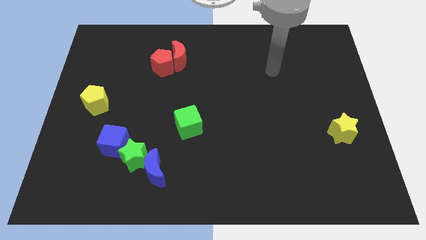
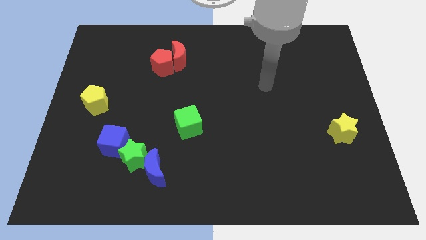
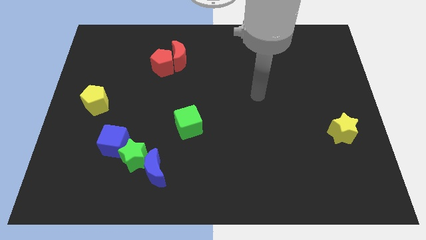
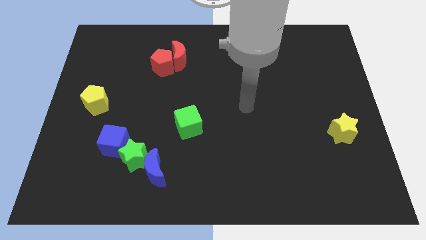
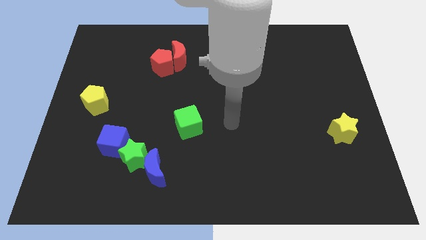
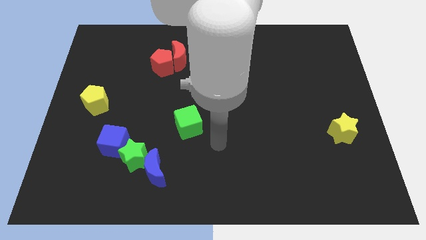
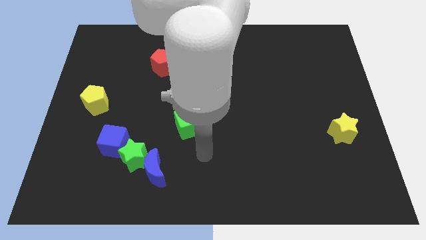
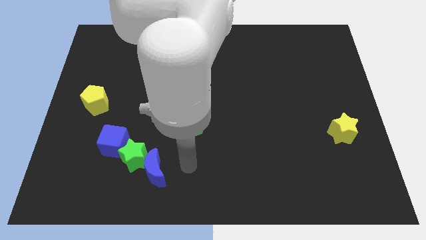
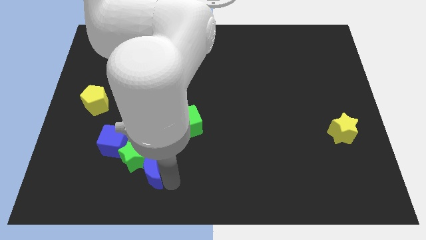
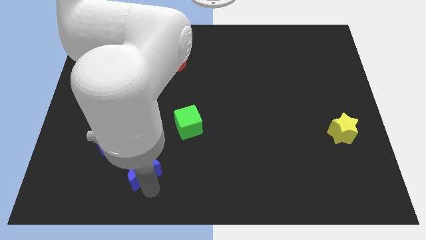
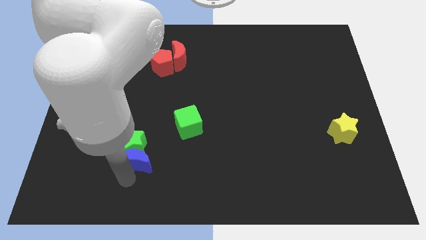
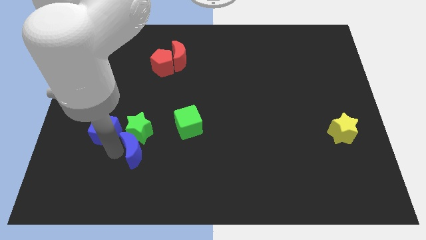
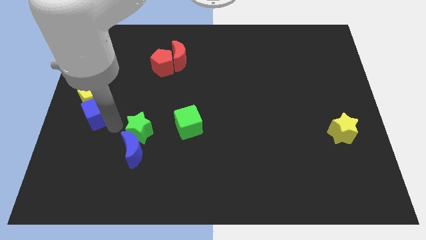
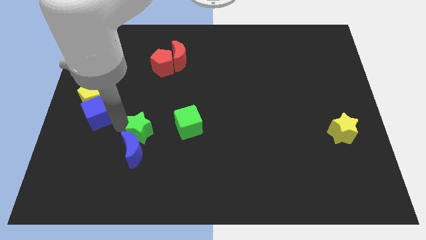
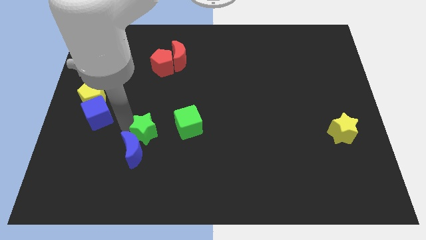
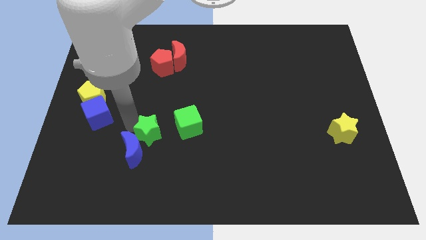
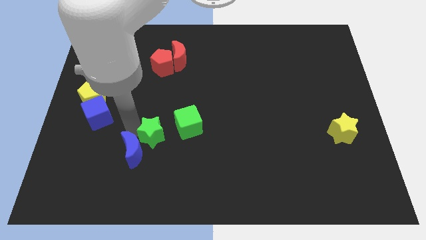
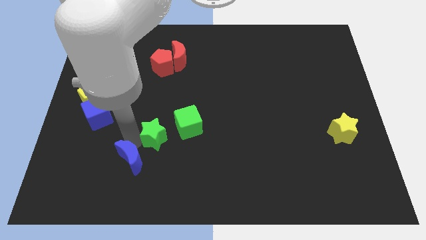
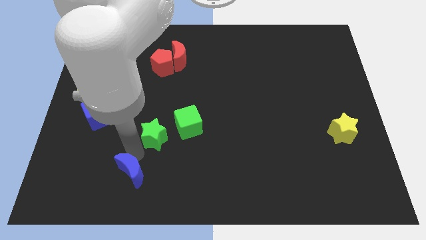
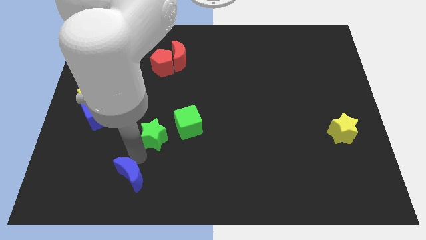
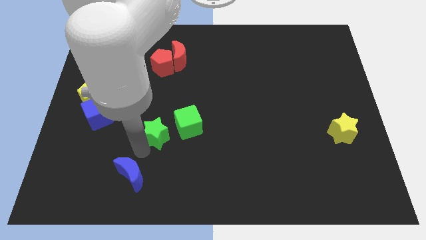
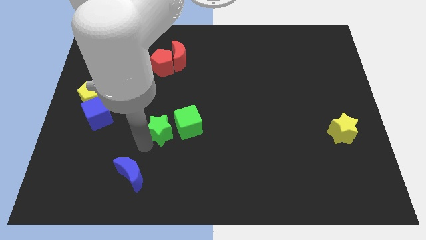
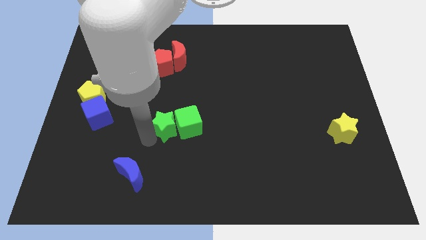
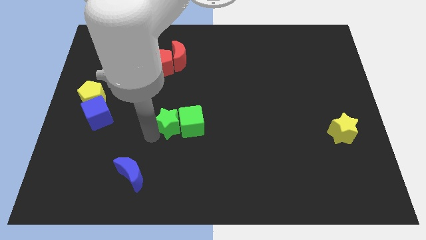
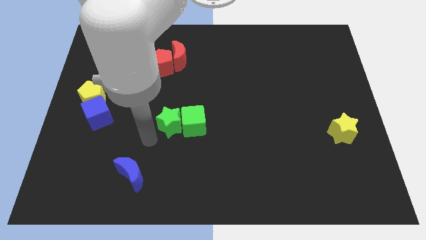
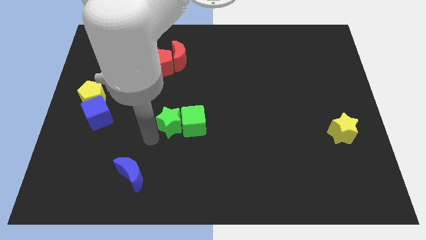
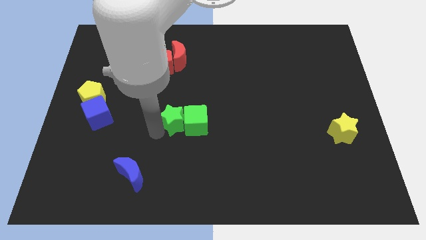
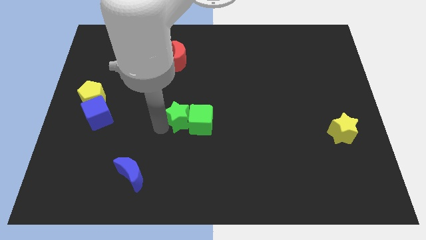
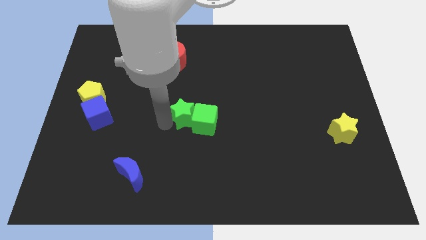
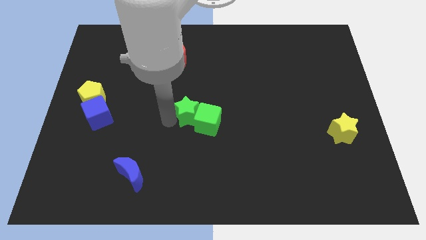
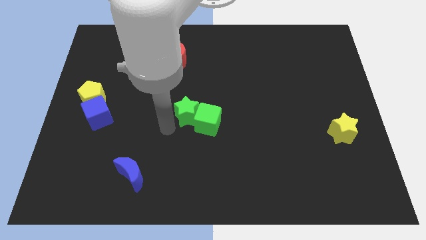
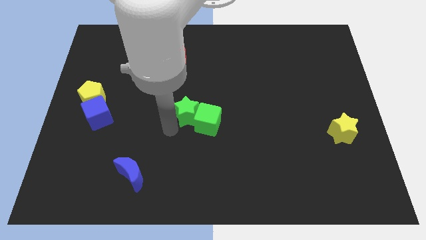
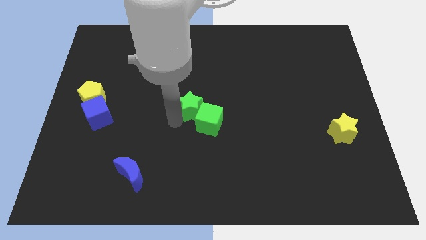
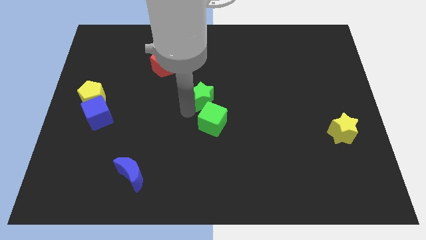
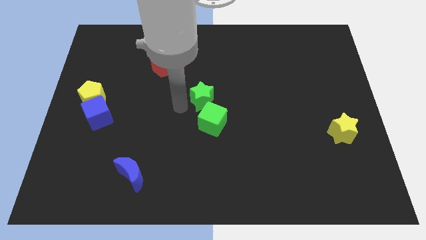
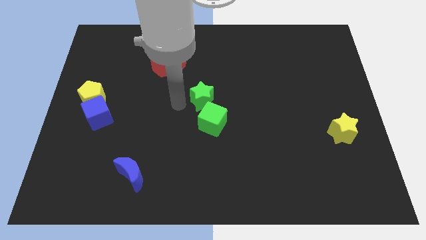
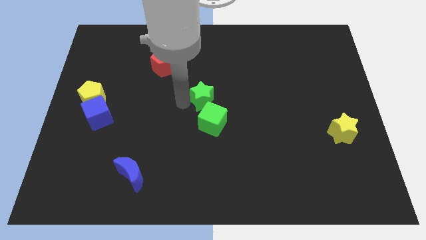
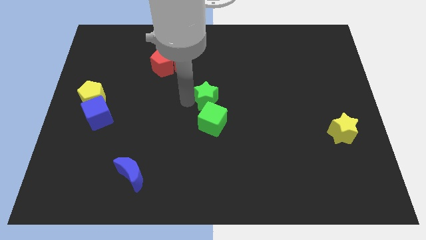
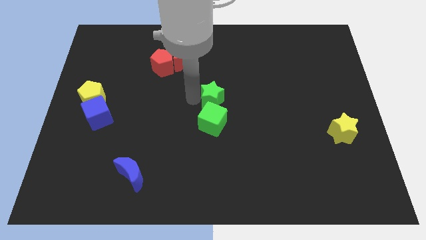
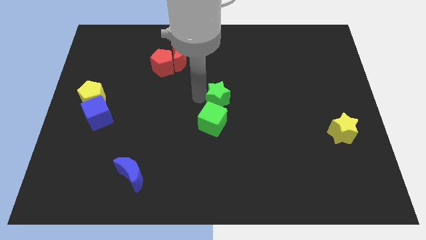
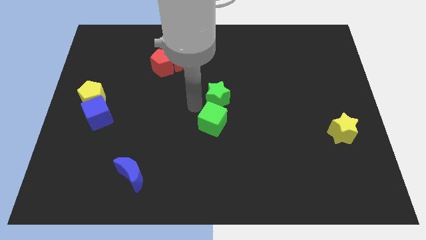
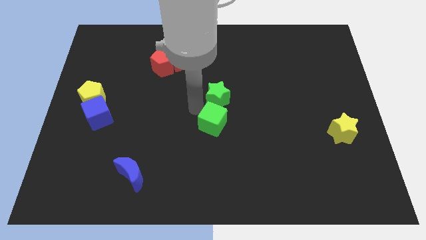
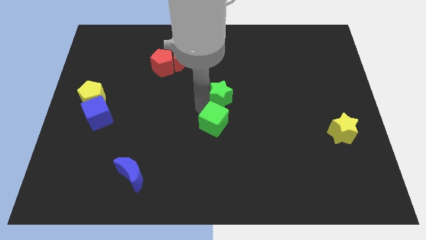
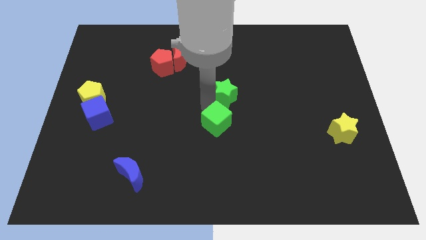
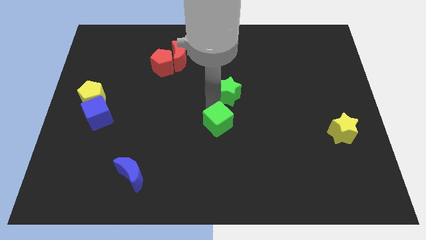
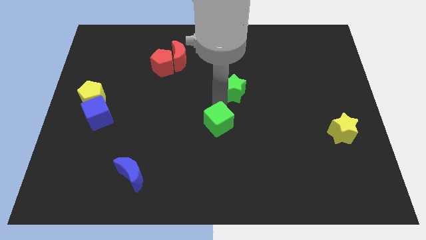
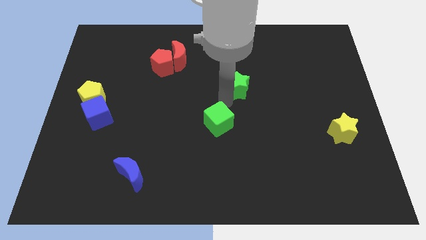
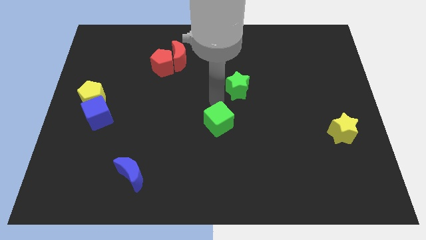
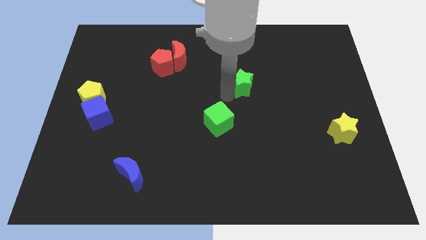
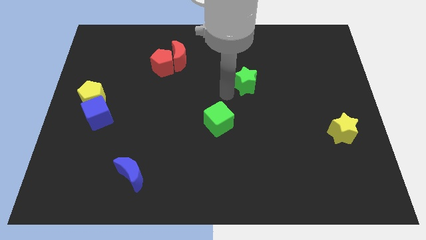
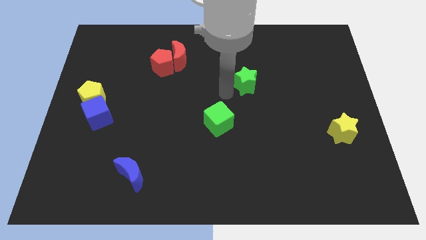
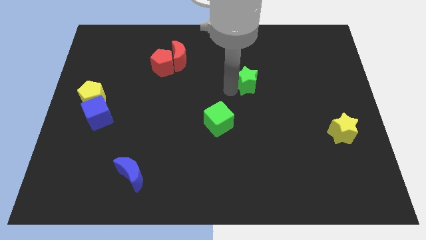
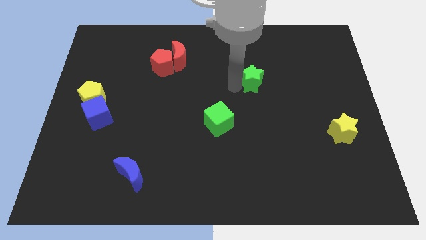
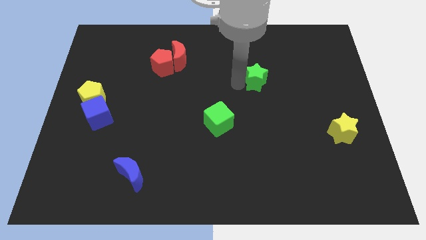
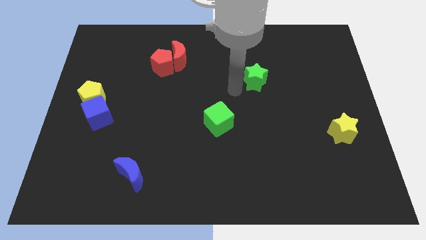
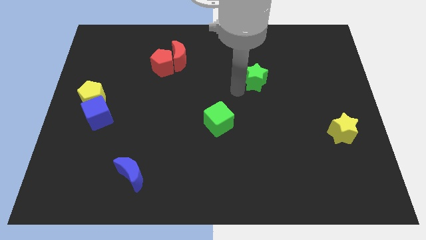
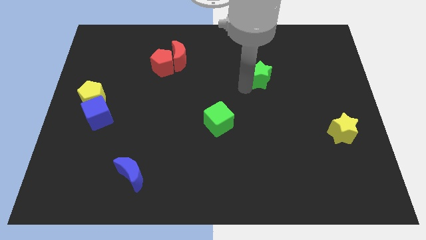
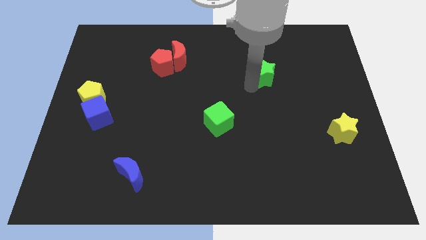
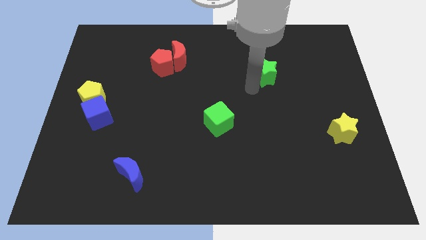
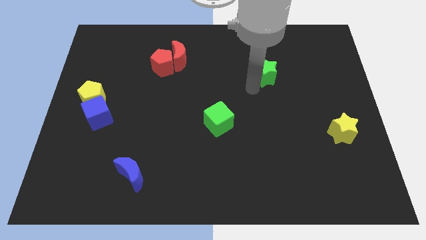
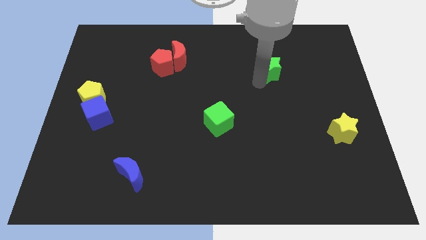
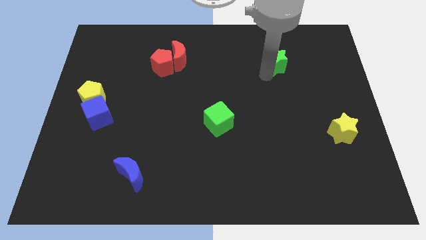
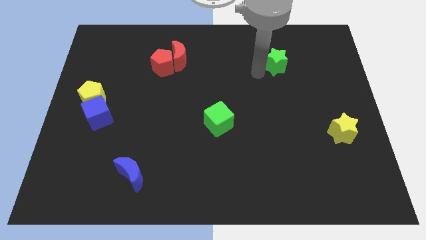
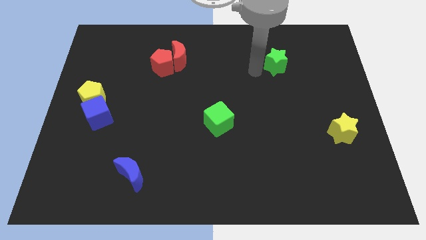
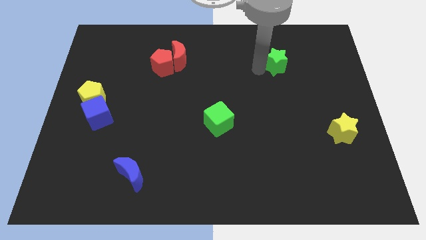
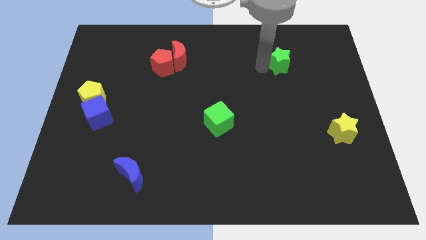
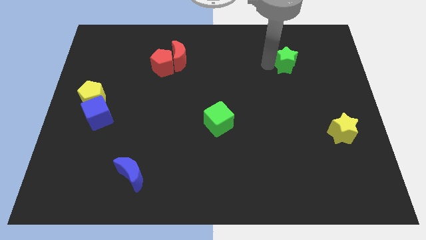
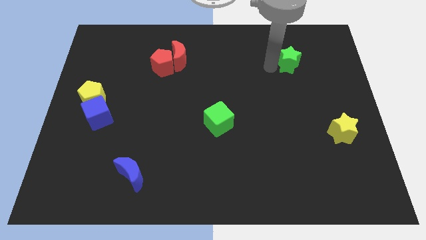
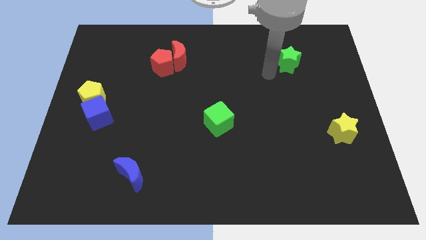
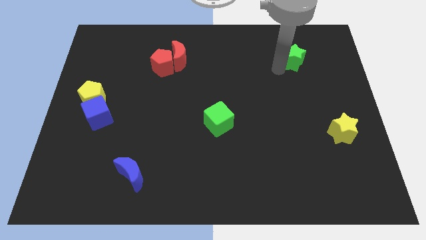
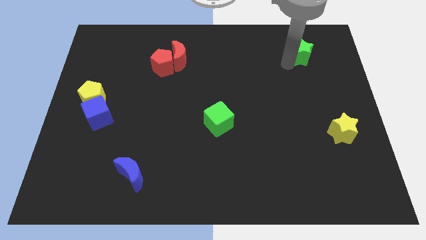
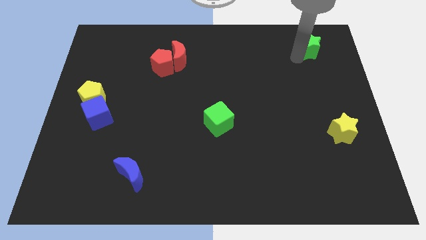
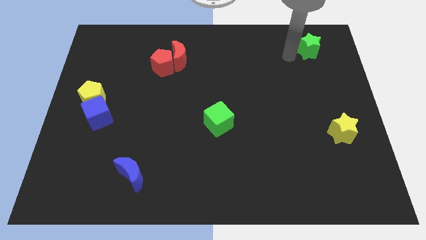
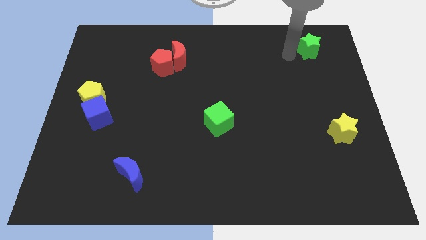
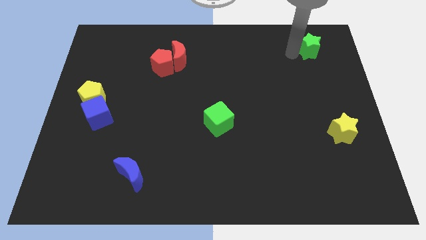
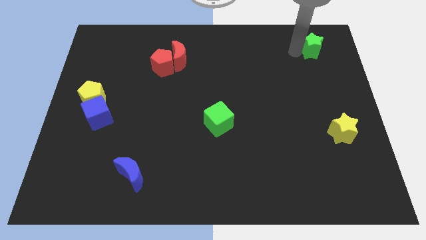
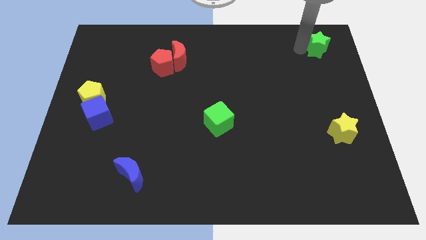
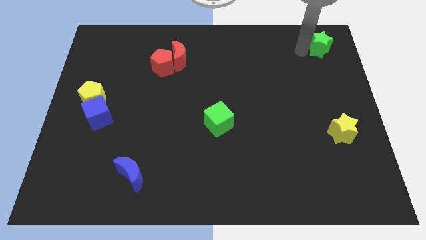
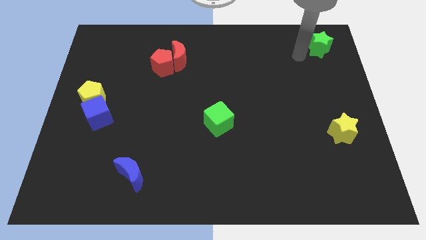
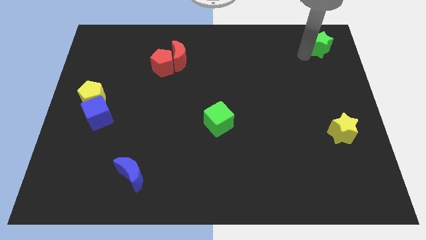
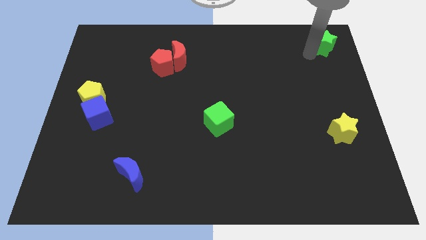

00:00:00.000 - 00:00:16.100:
slide the green star to the top right corner
